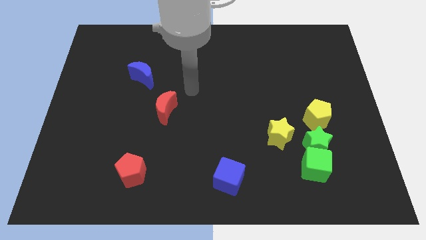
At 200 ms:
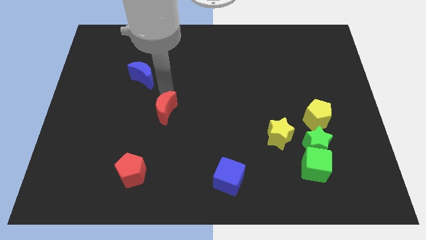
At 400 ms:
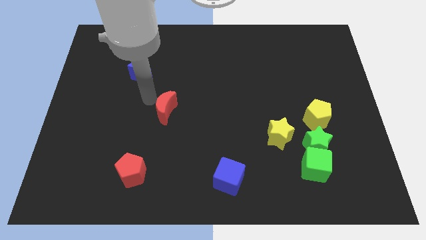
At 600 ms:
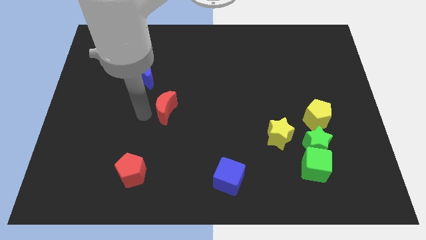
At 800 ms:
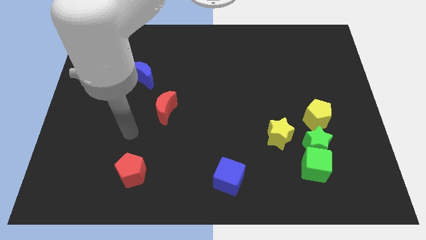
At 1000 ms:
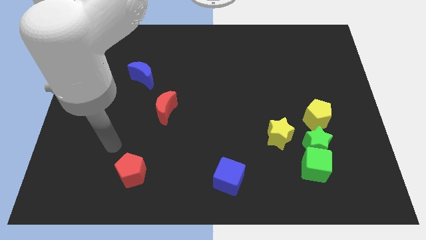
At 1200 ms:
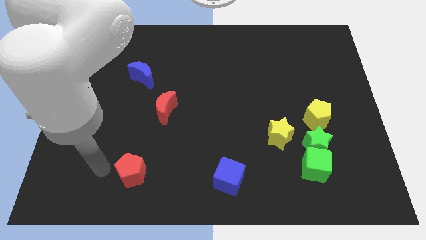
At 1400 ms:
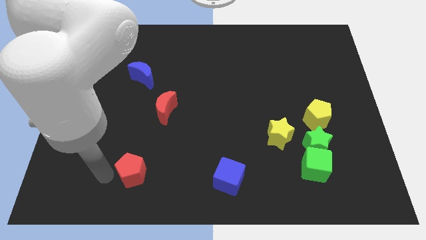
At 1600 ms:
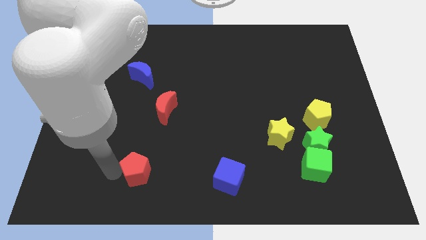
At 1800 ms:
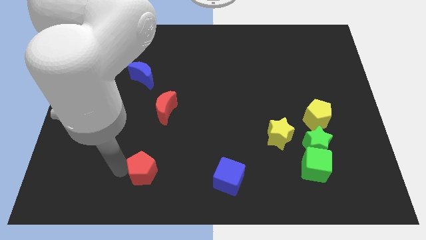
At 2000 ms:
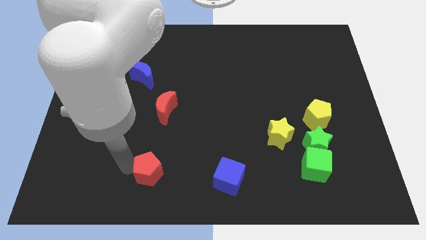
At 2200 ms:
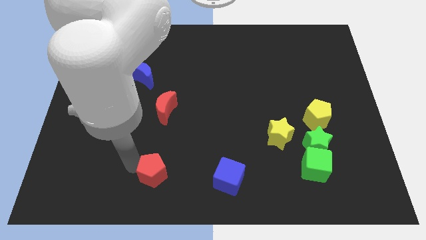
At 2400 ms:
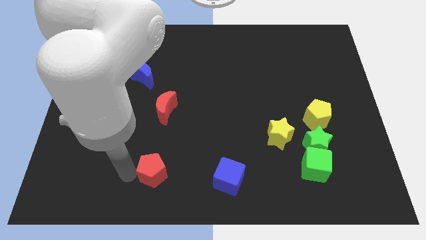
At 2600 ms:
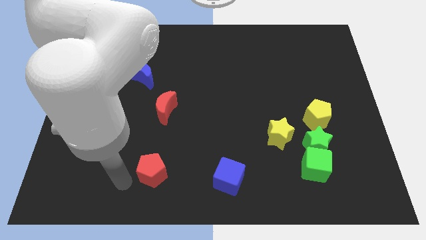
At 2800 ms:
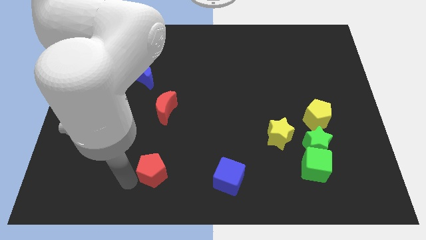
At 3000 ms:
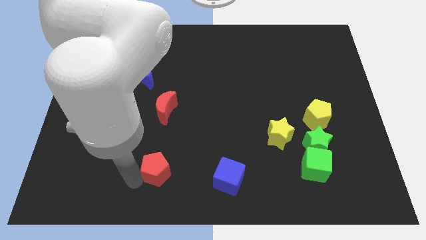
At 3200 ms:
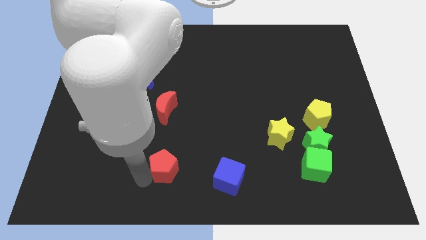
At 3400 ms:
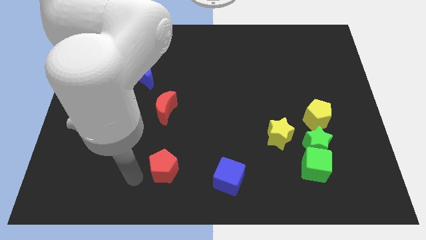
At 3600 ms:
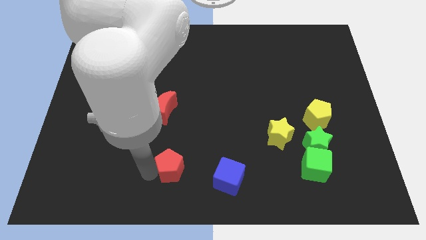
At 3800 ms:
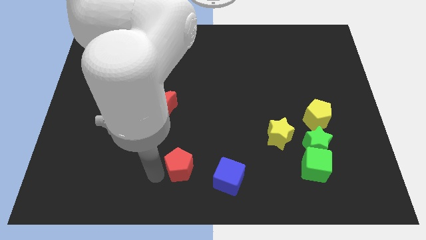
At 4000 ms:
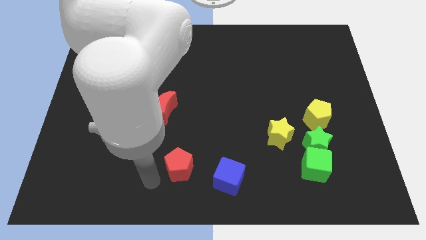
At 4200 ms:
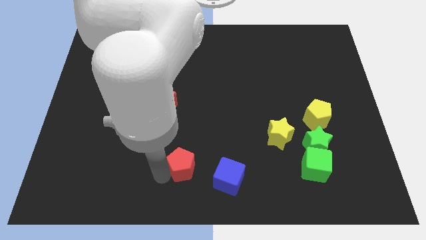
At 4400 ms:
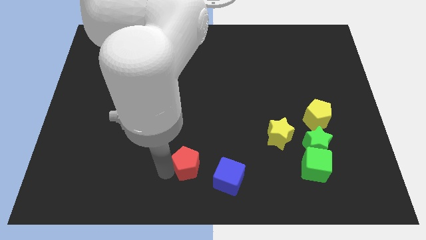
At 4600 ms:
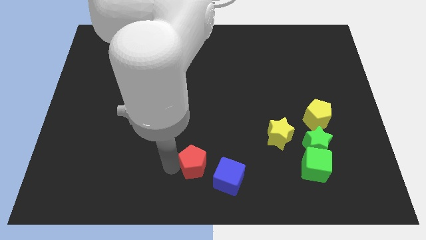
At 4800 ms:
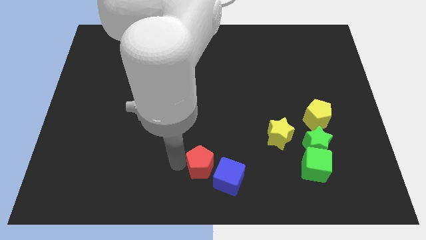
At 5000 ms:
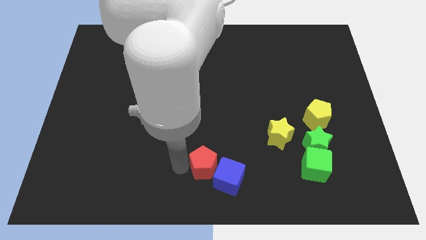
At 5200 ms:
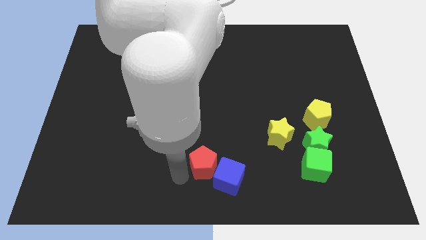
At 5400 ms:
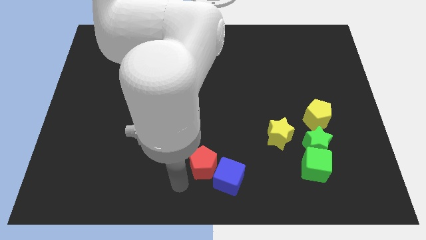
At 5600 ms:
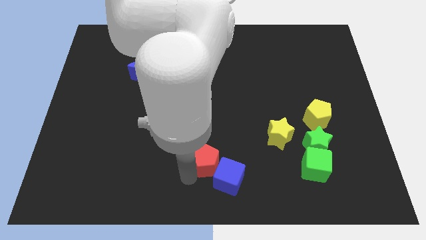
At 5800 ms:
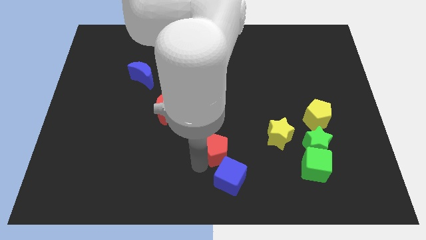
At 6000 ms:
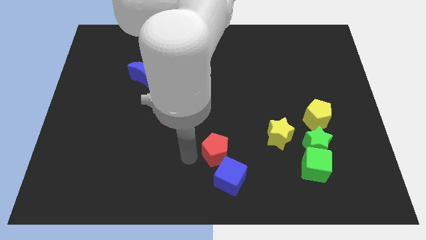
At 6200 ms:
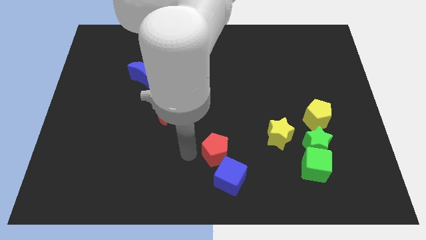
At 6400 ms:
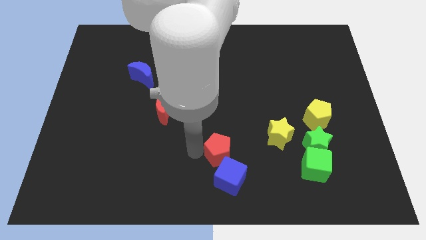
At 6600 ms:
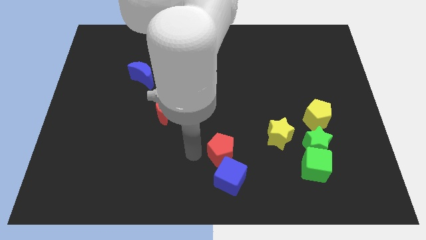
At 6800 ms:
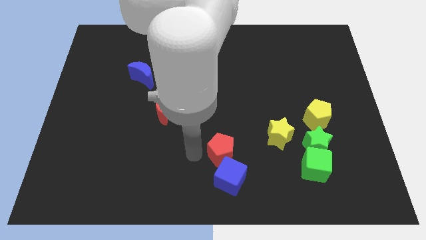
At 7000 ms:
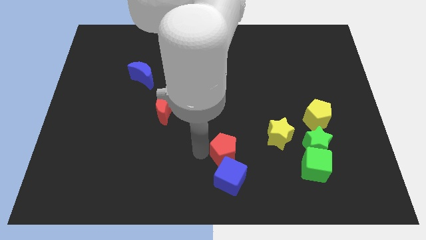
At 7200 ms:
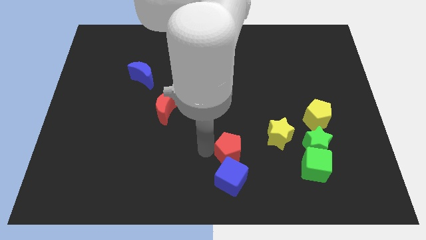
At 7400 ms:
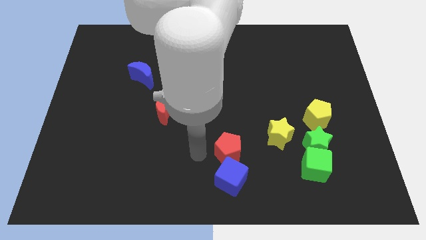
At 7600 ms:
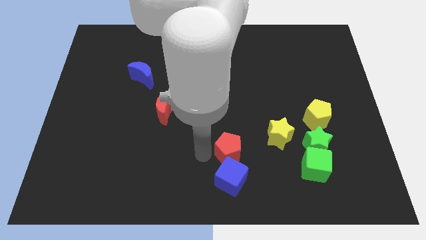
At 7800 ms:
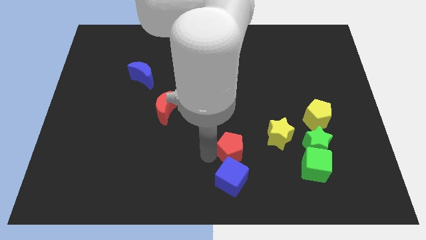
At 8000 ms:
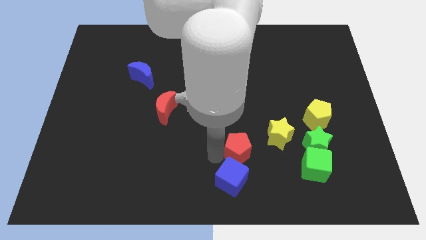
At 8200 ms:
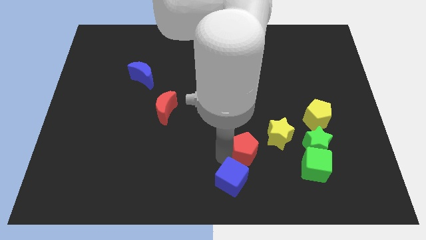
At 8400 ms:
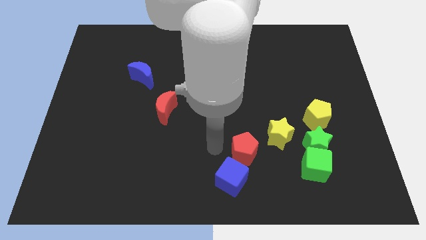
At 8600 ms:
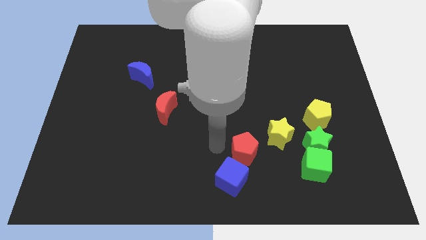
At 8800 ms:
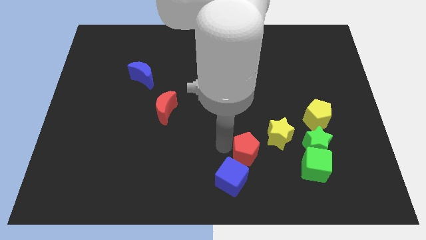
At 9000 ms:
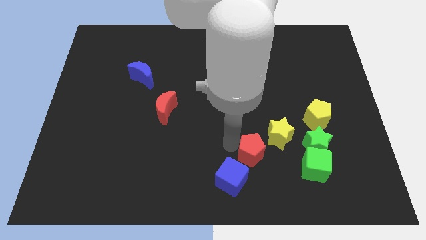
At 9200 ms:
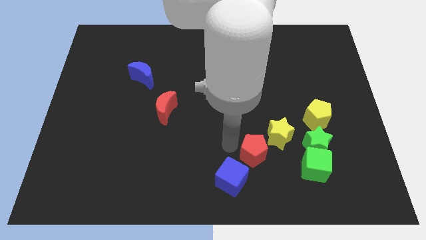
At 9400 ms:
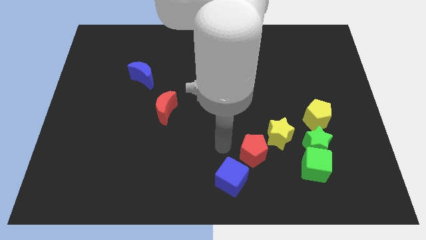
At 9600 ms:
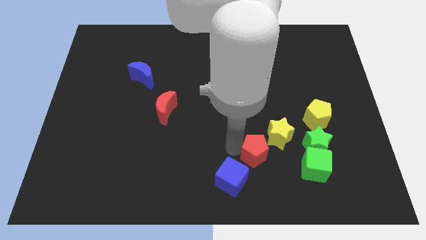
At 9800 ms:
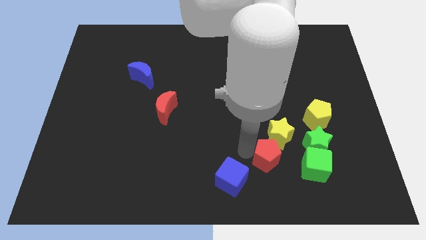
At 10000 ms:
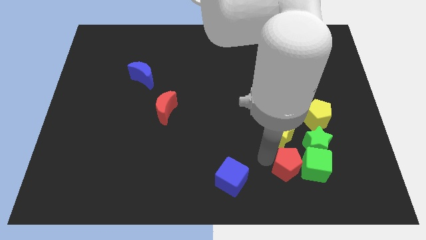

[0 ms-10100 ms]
put the red pentagon to the green cube

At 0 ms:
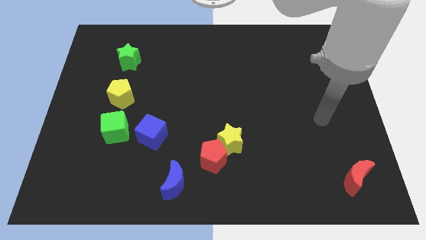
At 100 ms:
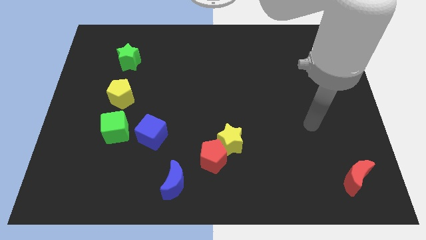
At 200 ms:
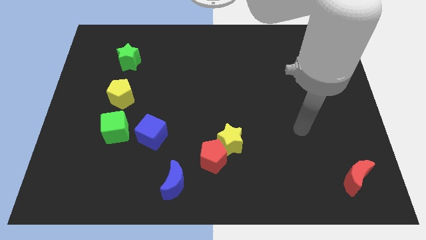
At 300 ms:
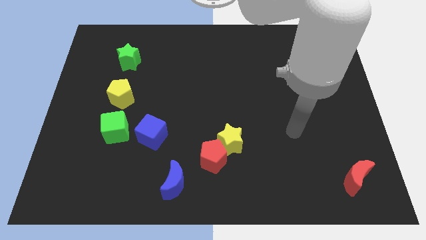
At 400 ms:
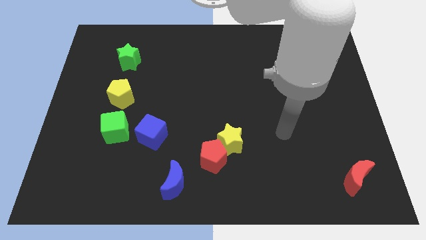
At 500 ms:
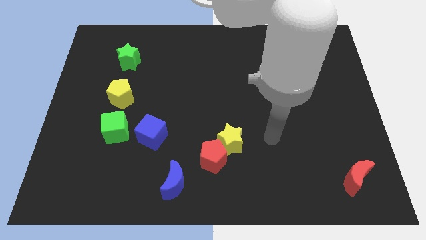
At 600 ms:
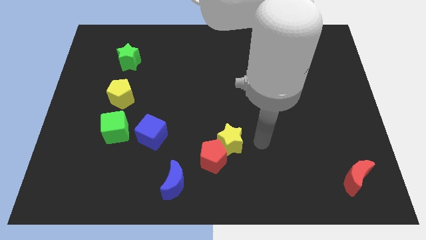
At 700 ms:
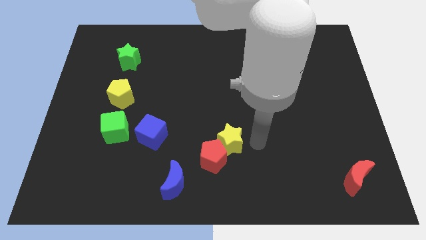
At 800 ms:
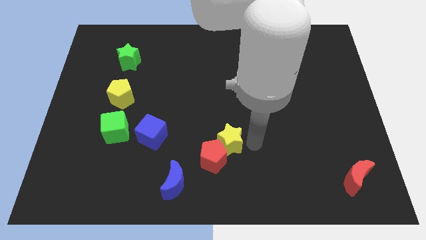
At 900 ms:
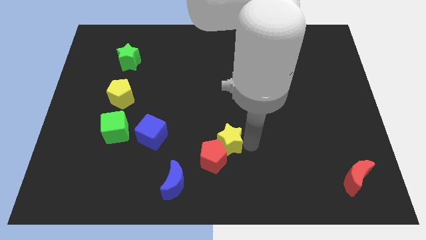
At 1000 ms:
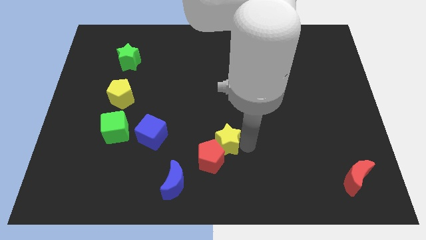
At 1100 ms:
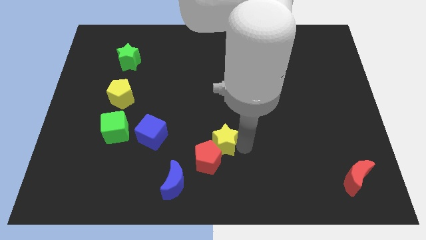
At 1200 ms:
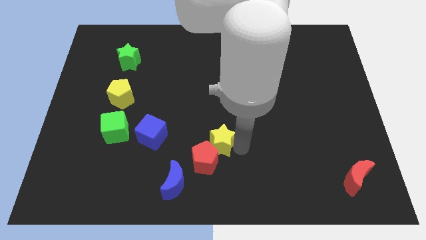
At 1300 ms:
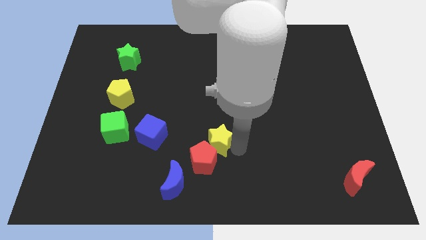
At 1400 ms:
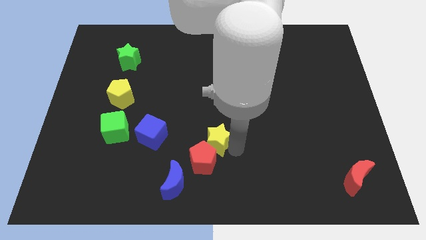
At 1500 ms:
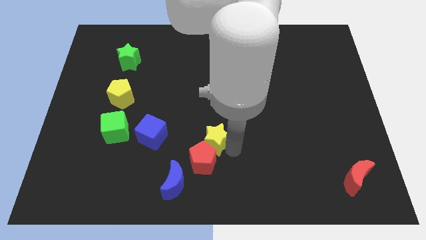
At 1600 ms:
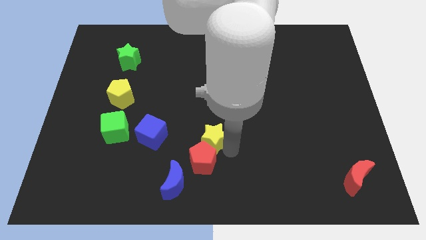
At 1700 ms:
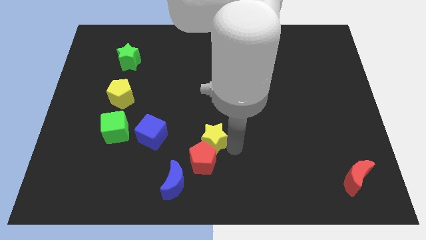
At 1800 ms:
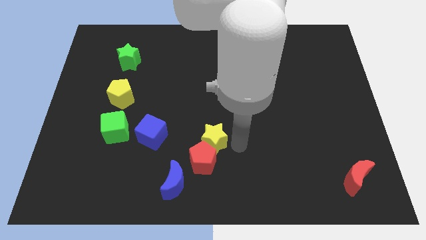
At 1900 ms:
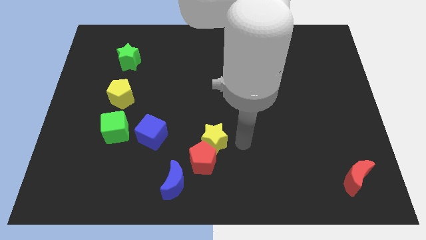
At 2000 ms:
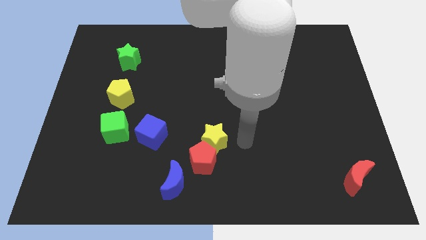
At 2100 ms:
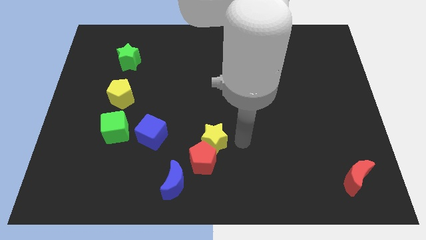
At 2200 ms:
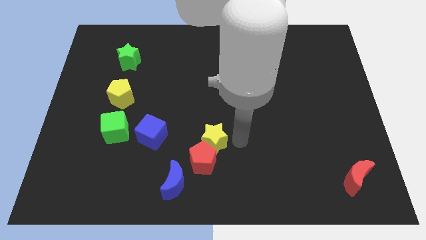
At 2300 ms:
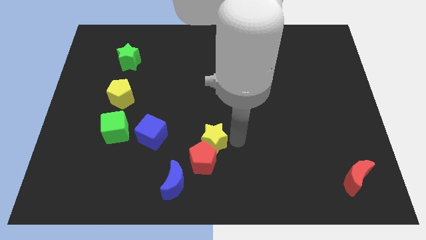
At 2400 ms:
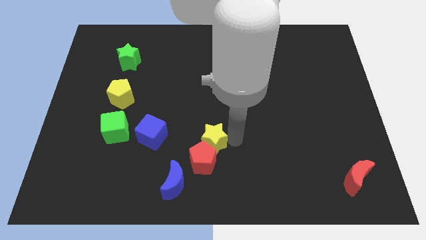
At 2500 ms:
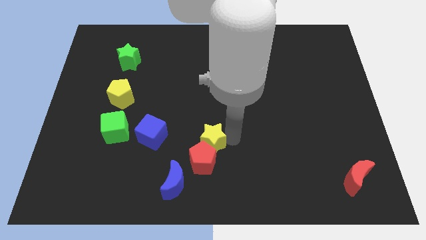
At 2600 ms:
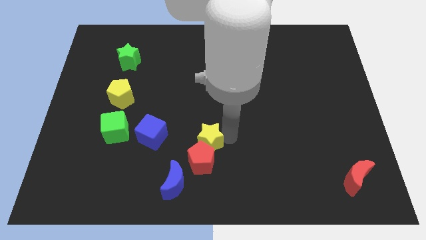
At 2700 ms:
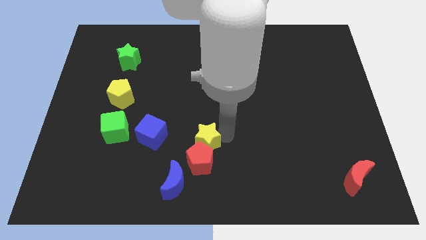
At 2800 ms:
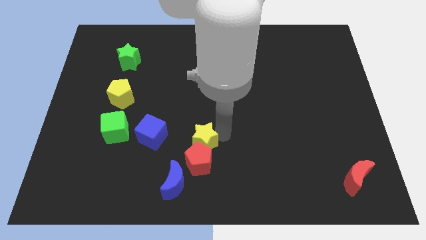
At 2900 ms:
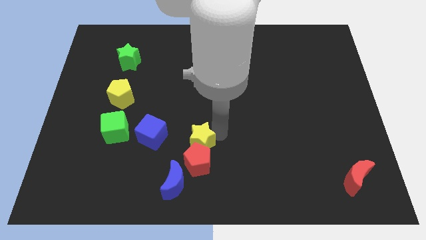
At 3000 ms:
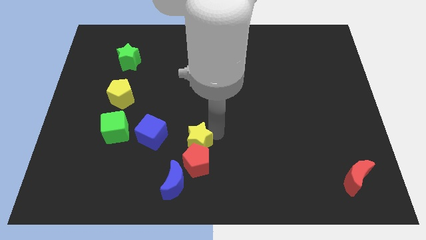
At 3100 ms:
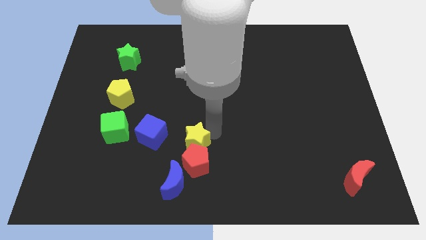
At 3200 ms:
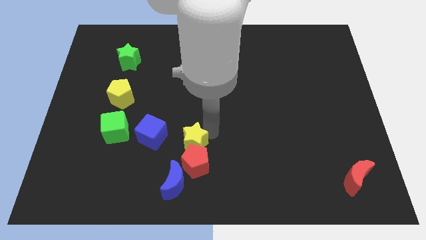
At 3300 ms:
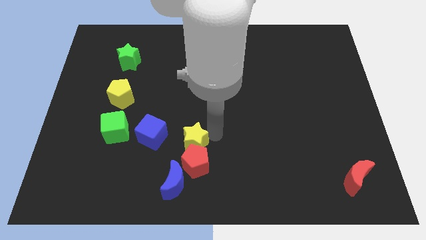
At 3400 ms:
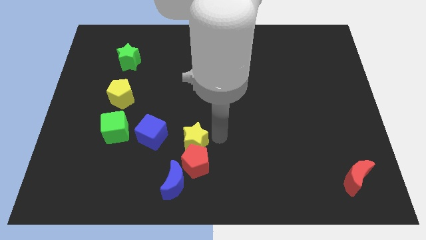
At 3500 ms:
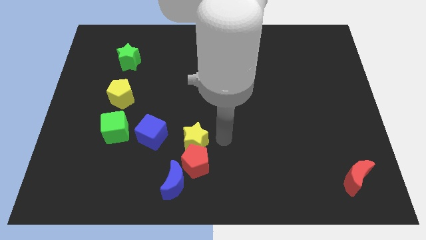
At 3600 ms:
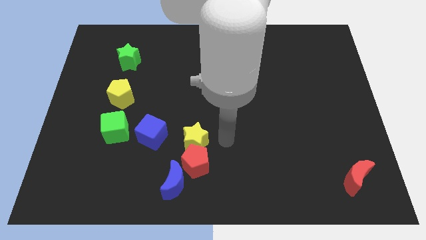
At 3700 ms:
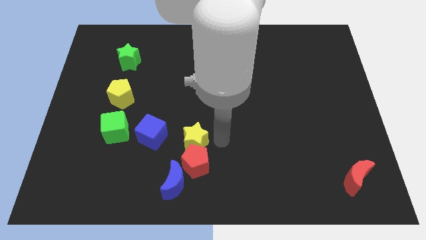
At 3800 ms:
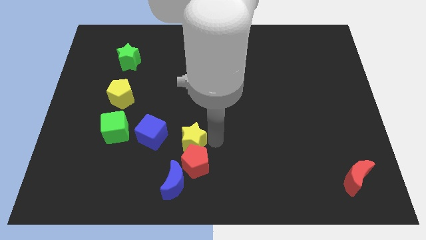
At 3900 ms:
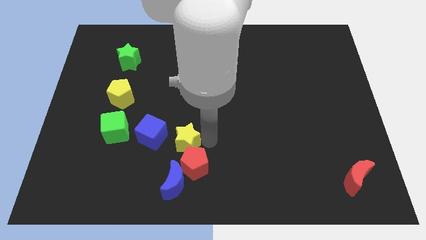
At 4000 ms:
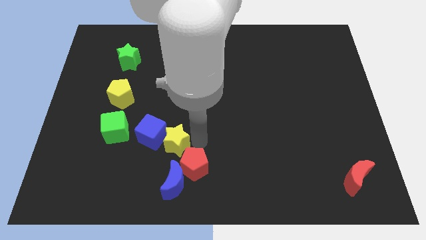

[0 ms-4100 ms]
slide the yellow star close to the blue cube
